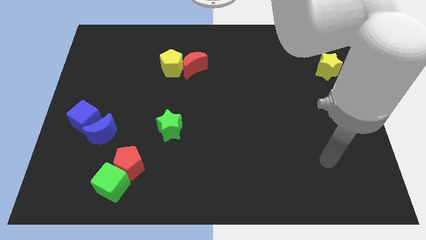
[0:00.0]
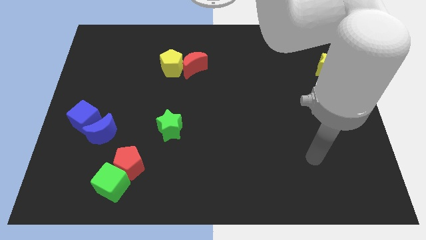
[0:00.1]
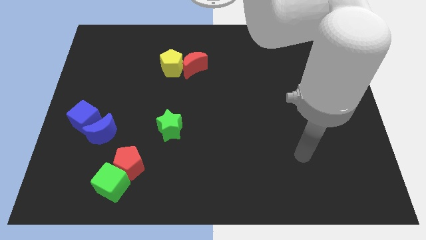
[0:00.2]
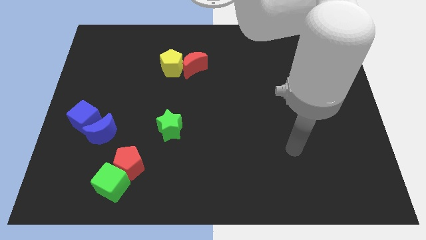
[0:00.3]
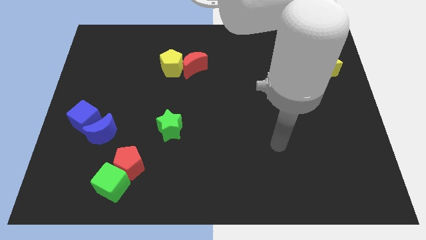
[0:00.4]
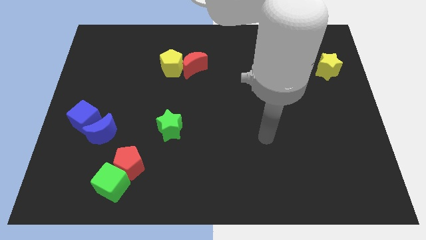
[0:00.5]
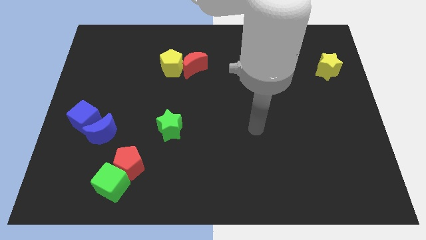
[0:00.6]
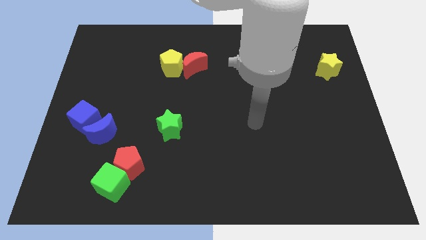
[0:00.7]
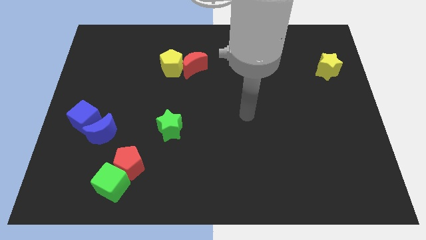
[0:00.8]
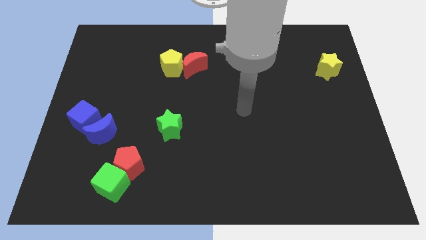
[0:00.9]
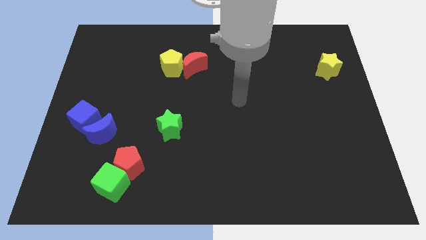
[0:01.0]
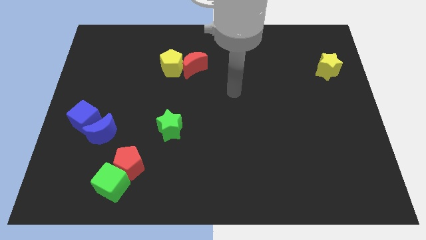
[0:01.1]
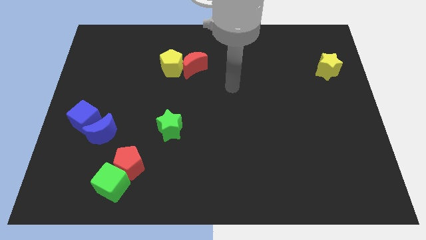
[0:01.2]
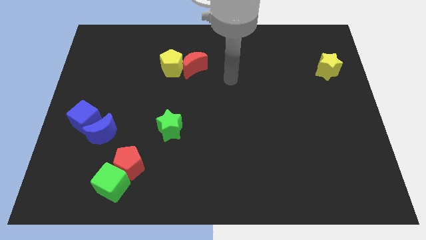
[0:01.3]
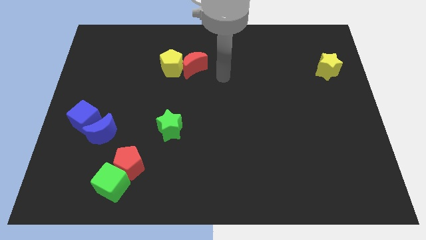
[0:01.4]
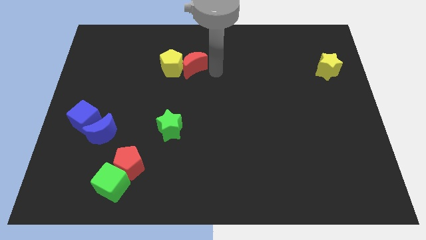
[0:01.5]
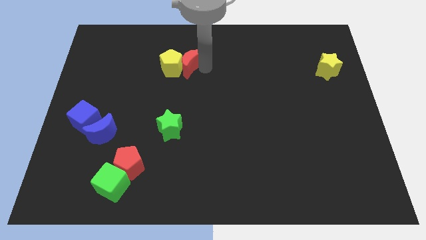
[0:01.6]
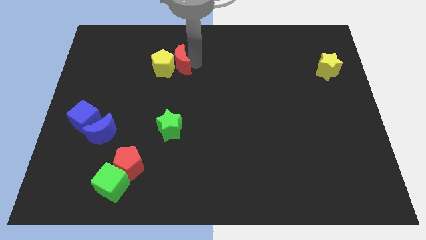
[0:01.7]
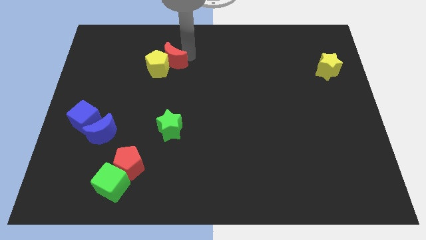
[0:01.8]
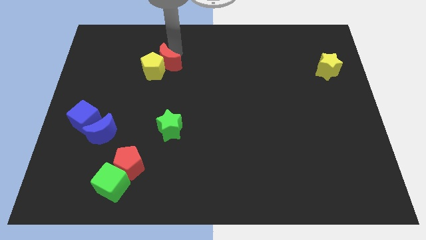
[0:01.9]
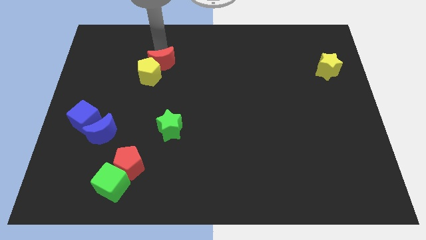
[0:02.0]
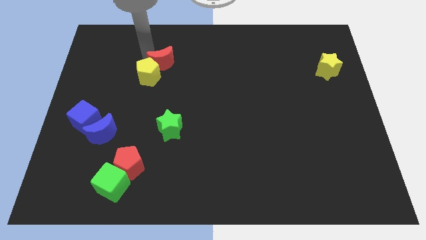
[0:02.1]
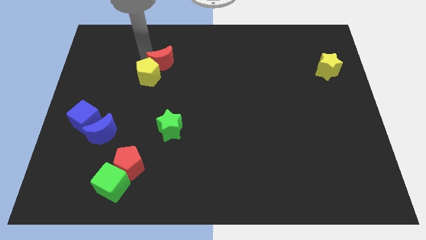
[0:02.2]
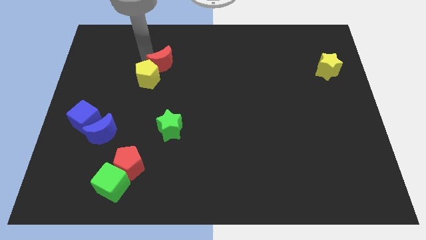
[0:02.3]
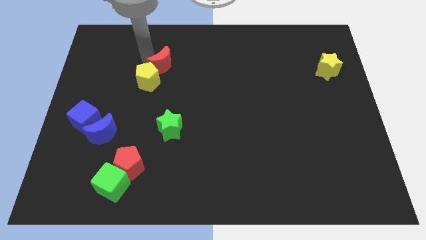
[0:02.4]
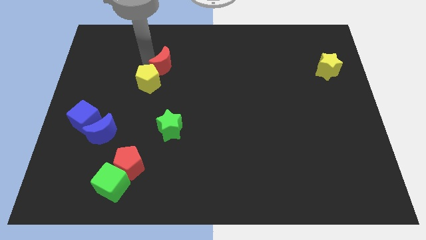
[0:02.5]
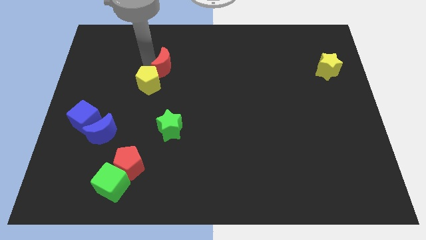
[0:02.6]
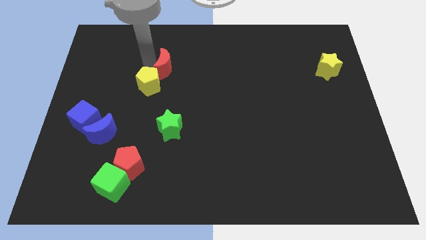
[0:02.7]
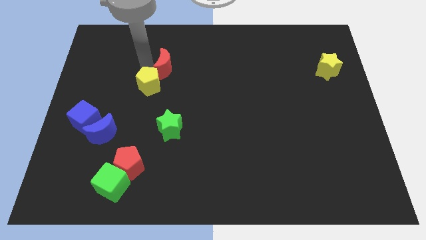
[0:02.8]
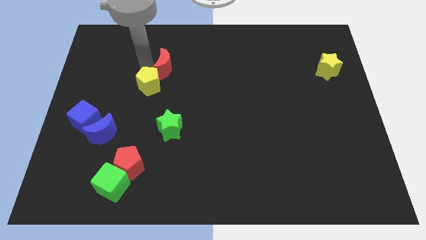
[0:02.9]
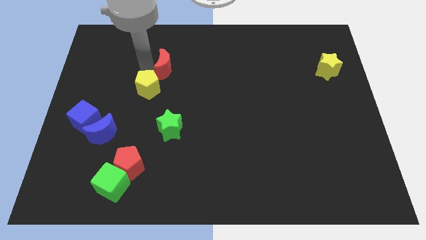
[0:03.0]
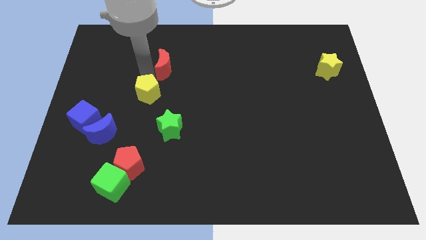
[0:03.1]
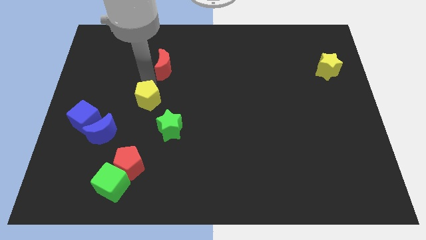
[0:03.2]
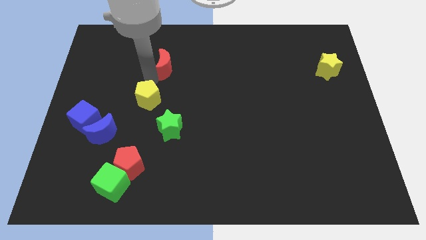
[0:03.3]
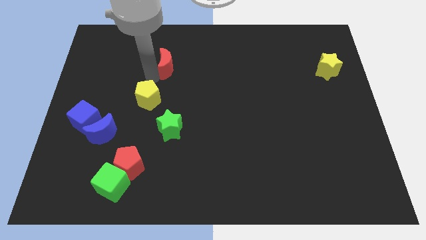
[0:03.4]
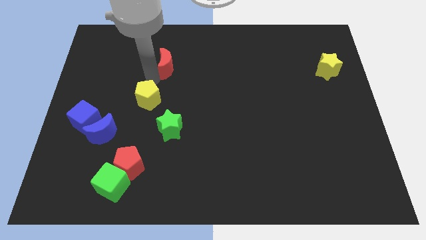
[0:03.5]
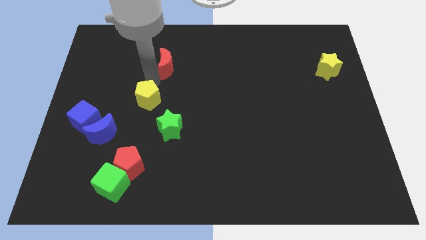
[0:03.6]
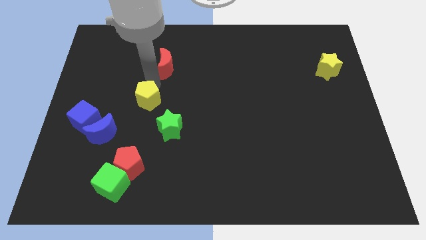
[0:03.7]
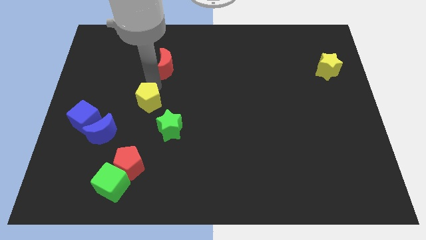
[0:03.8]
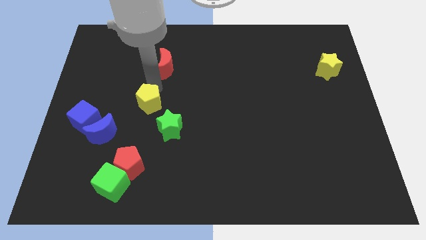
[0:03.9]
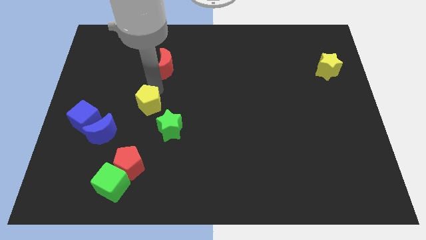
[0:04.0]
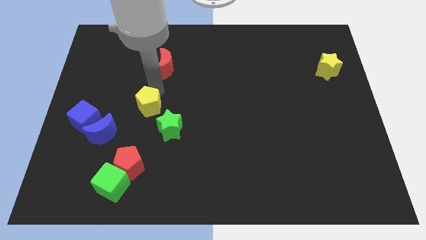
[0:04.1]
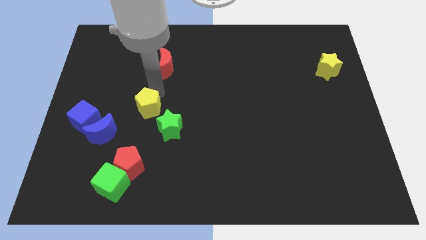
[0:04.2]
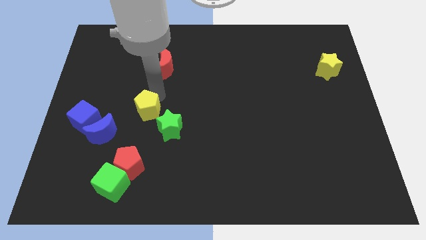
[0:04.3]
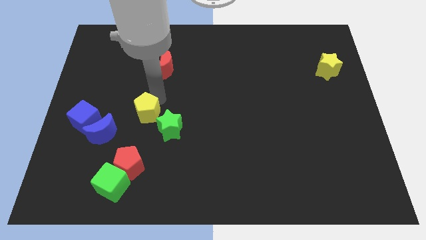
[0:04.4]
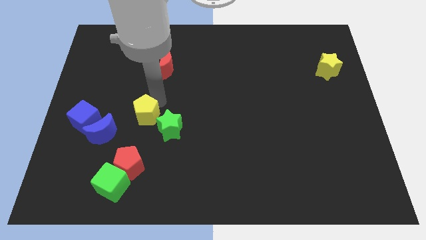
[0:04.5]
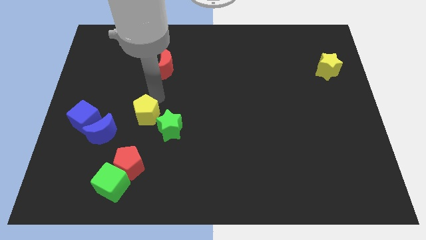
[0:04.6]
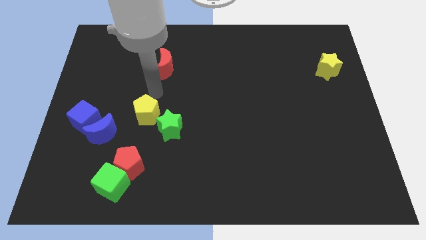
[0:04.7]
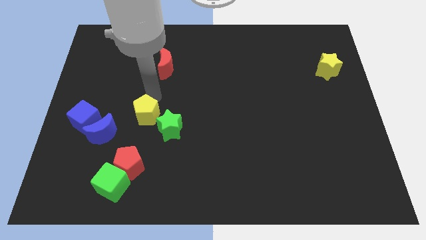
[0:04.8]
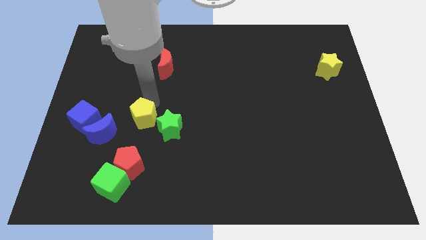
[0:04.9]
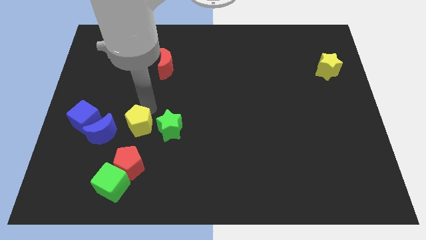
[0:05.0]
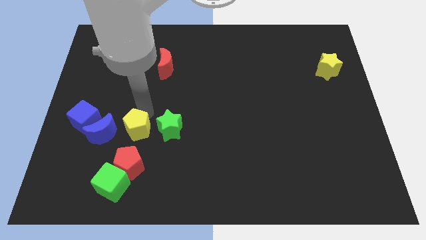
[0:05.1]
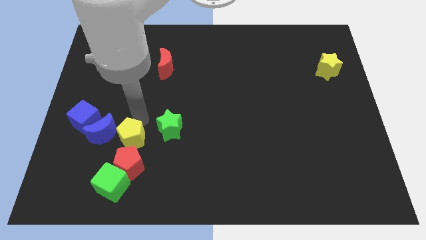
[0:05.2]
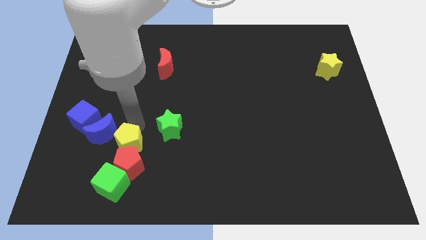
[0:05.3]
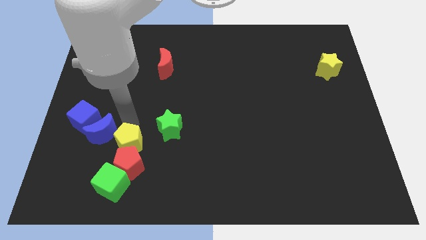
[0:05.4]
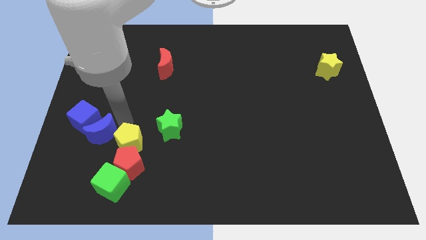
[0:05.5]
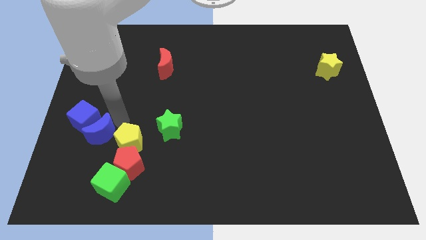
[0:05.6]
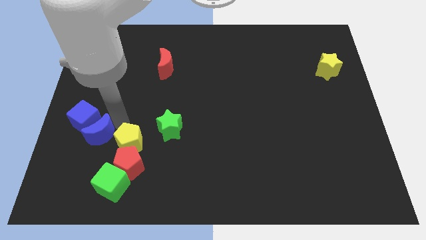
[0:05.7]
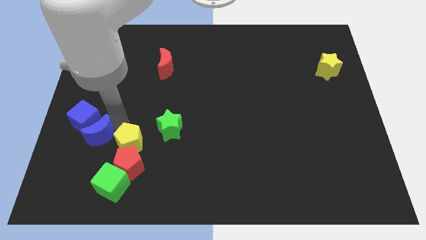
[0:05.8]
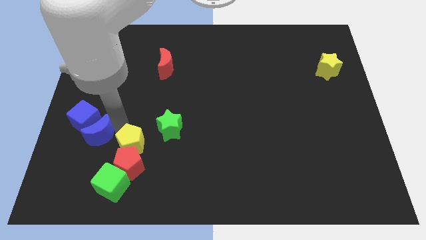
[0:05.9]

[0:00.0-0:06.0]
push the yellow pentagon to the top right of the green cube
